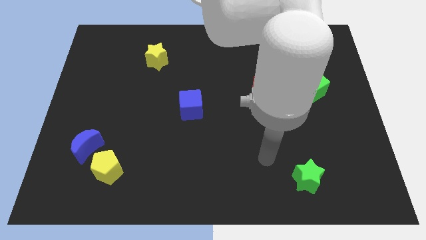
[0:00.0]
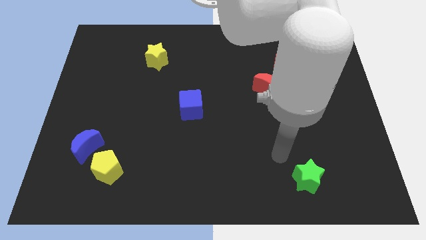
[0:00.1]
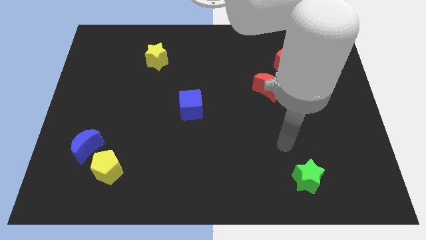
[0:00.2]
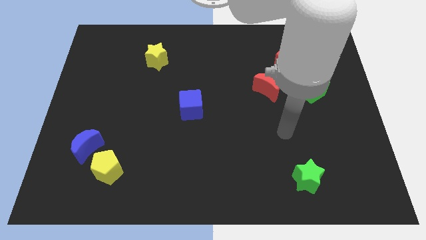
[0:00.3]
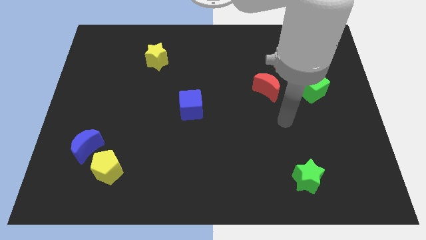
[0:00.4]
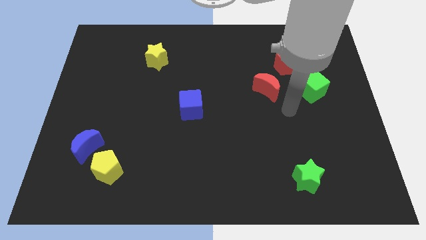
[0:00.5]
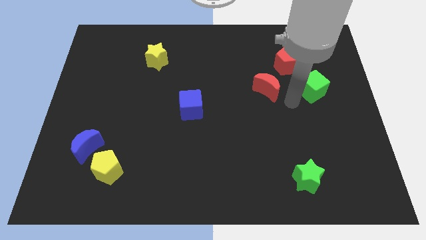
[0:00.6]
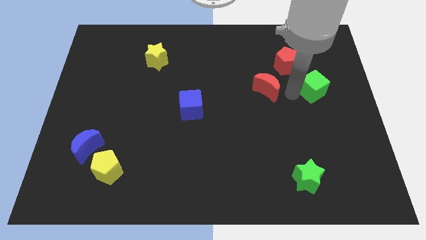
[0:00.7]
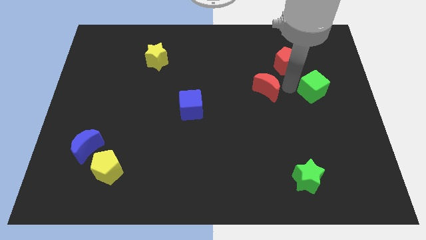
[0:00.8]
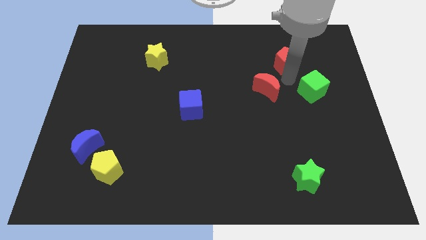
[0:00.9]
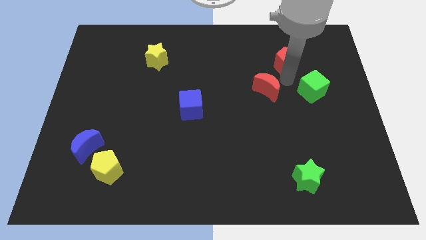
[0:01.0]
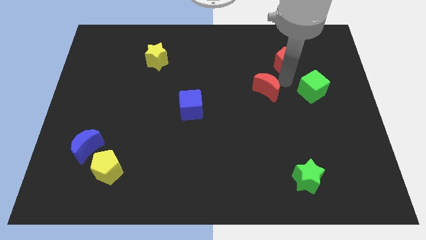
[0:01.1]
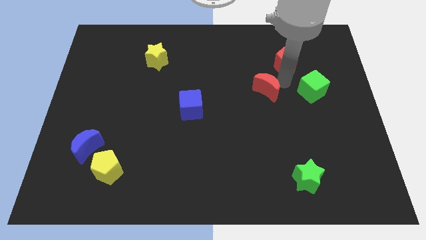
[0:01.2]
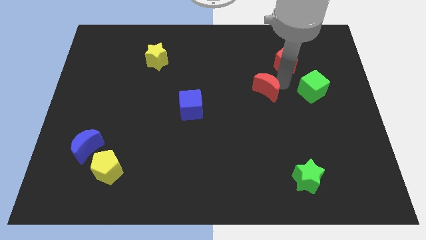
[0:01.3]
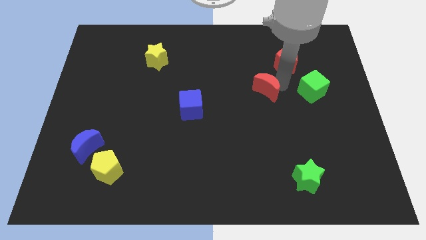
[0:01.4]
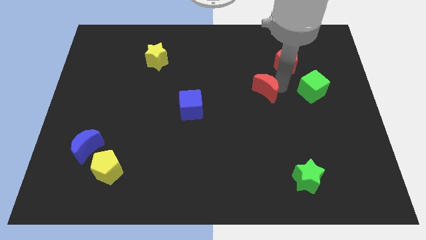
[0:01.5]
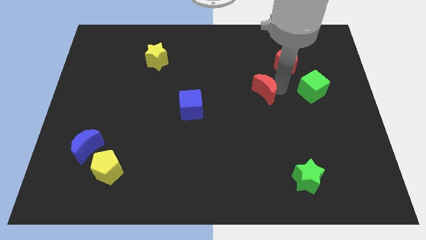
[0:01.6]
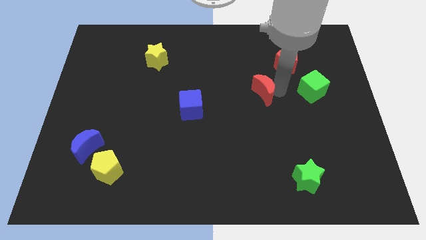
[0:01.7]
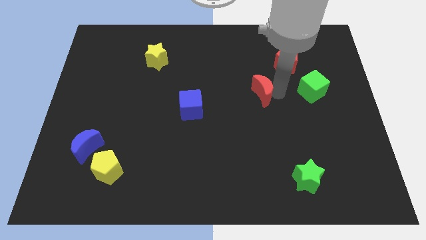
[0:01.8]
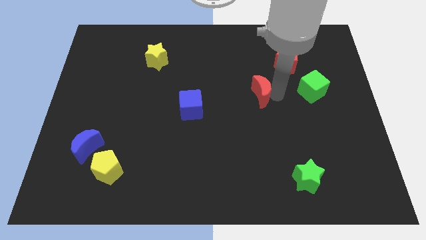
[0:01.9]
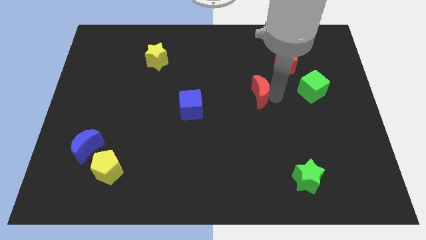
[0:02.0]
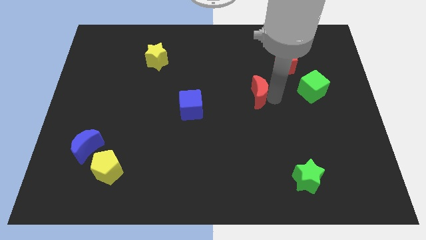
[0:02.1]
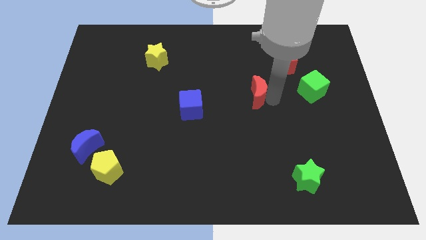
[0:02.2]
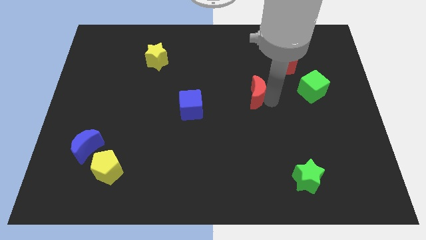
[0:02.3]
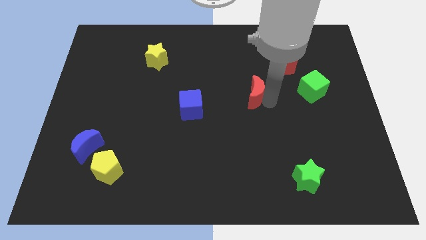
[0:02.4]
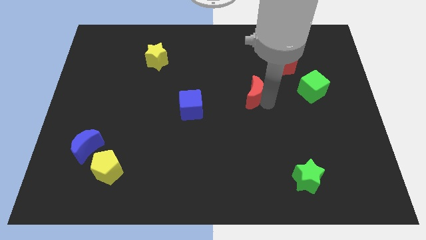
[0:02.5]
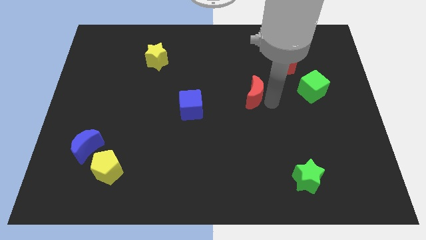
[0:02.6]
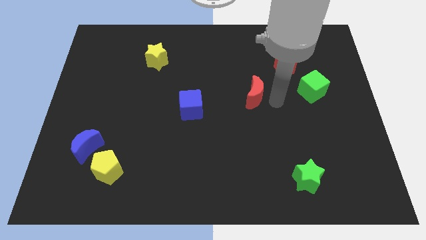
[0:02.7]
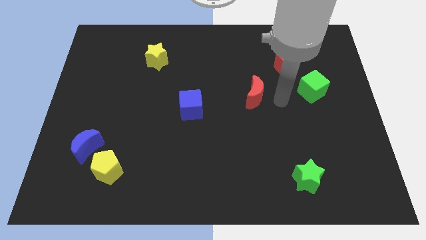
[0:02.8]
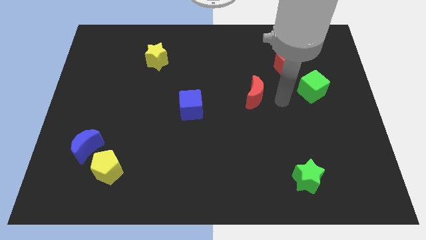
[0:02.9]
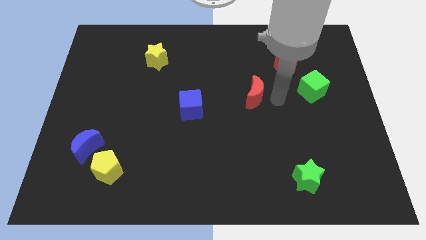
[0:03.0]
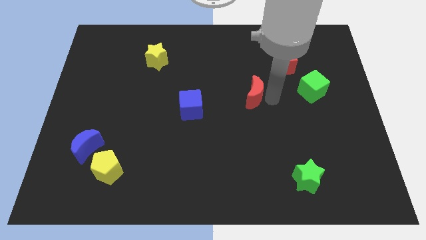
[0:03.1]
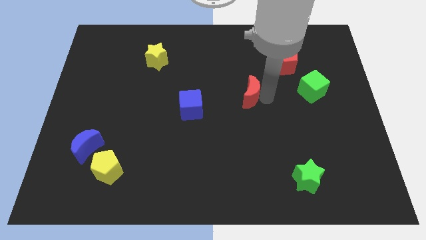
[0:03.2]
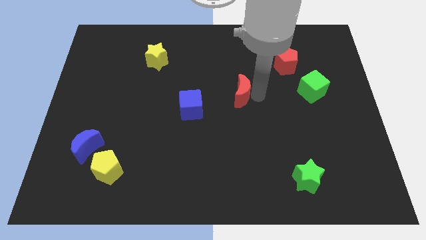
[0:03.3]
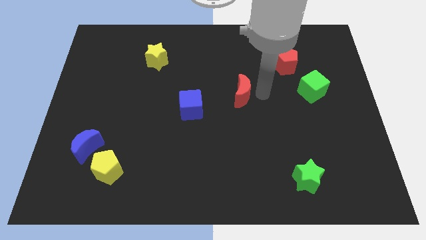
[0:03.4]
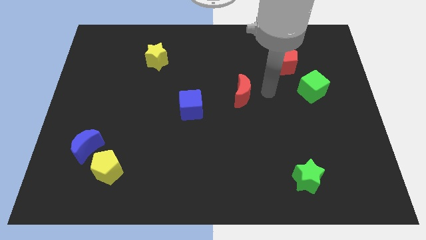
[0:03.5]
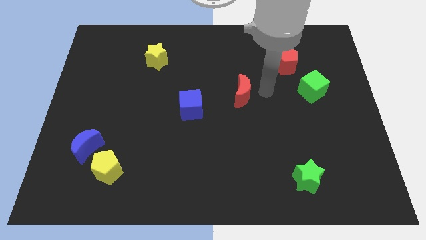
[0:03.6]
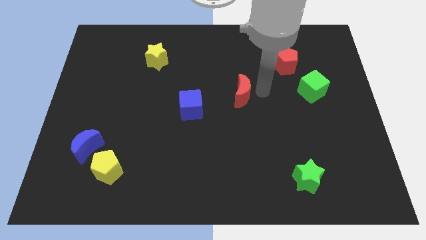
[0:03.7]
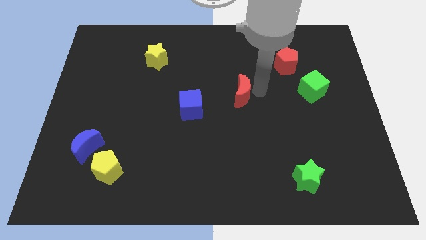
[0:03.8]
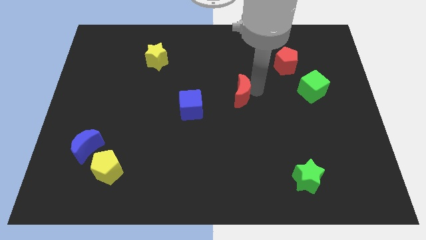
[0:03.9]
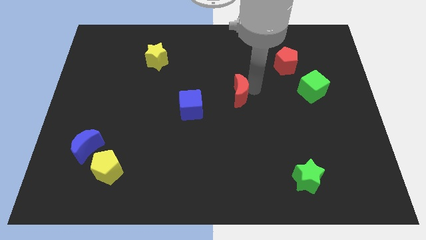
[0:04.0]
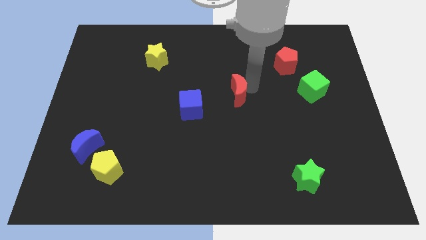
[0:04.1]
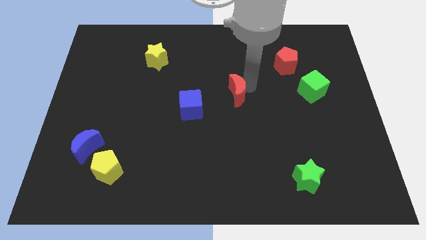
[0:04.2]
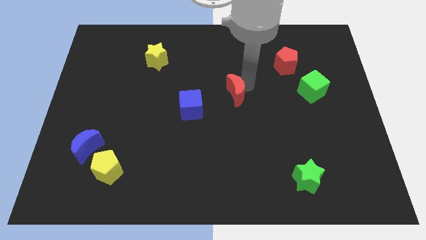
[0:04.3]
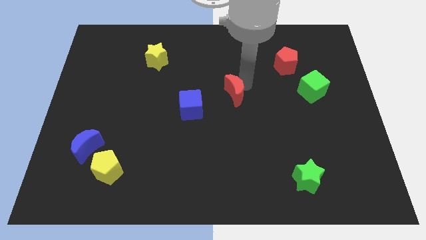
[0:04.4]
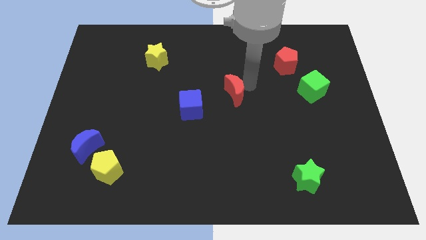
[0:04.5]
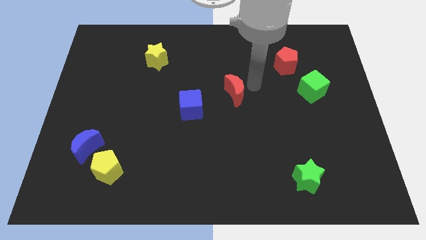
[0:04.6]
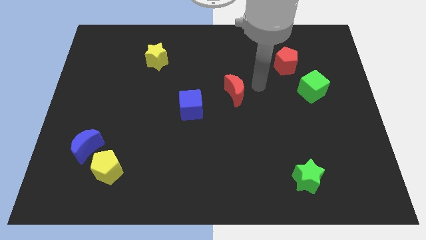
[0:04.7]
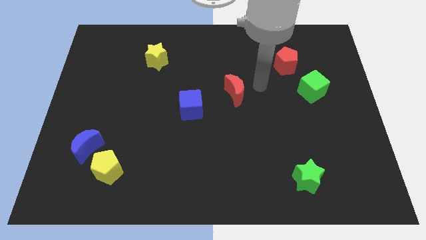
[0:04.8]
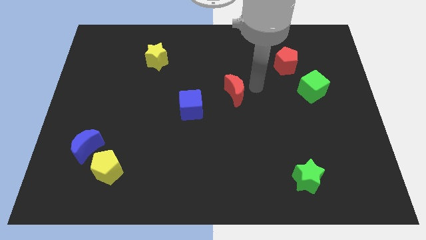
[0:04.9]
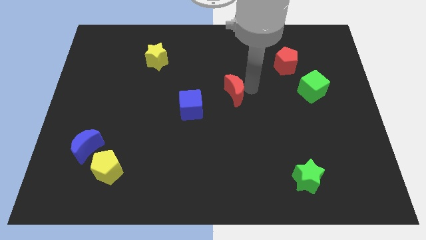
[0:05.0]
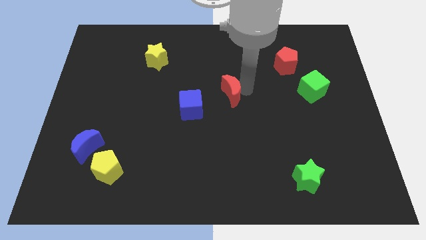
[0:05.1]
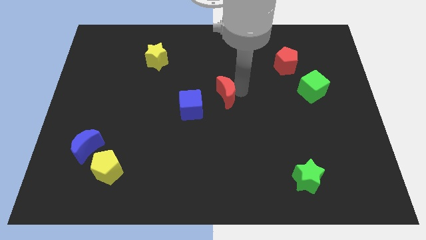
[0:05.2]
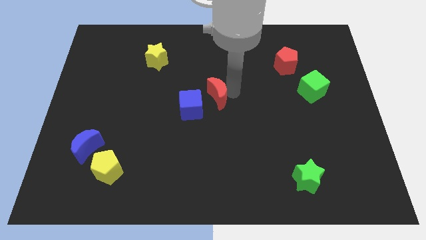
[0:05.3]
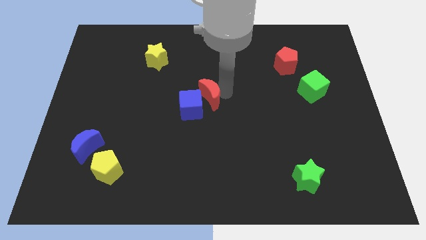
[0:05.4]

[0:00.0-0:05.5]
slide the red moon close to the blue cube

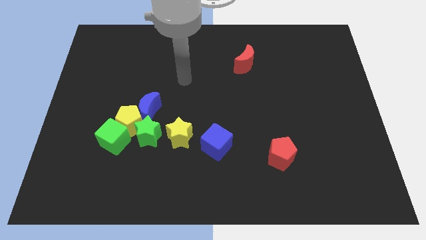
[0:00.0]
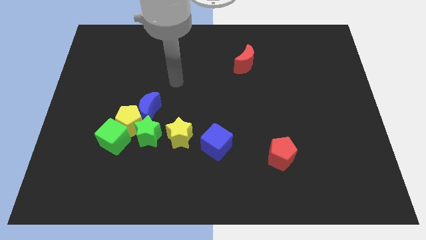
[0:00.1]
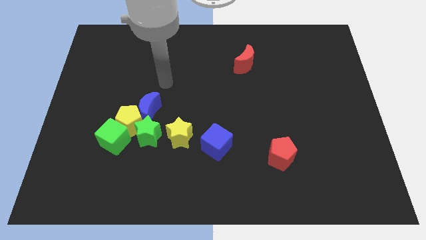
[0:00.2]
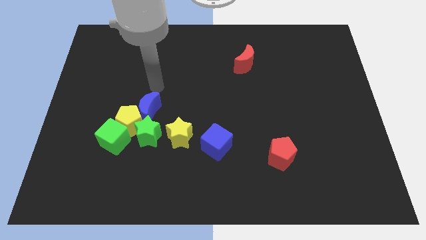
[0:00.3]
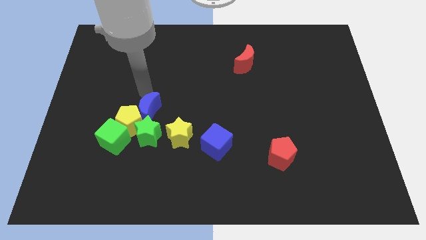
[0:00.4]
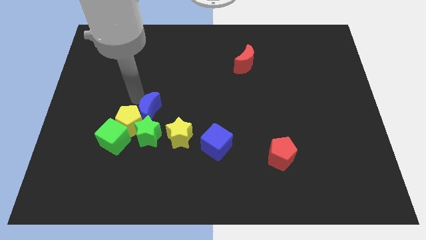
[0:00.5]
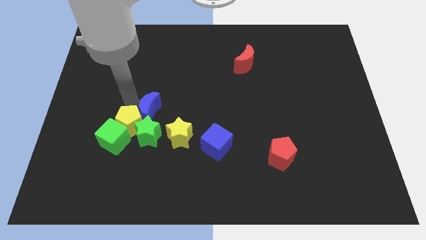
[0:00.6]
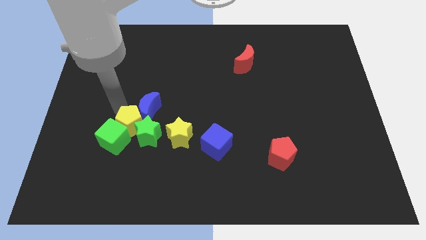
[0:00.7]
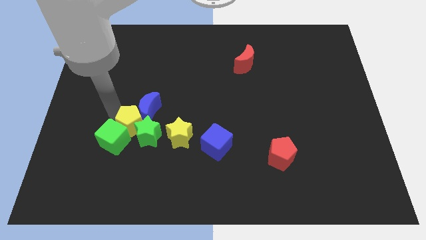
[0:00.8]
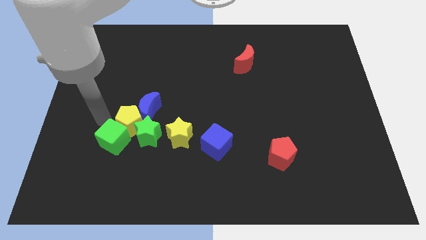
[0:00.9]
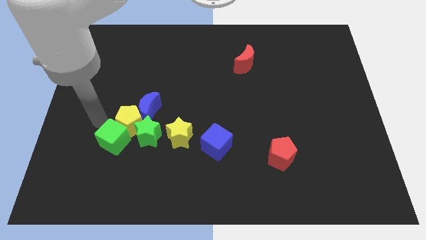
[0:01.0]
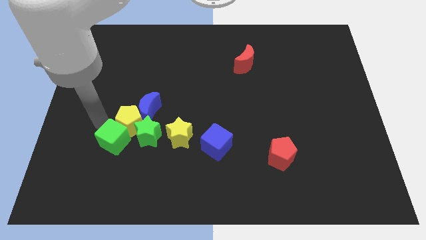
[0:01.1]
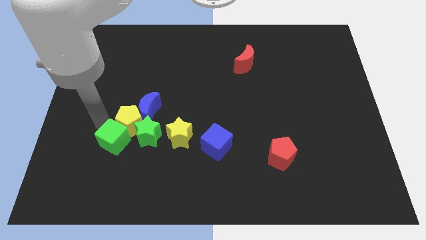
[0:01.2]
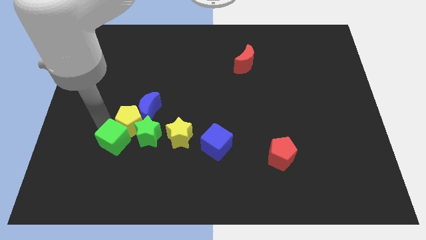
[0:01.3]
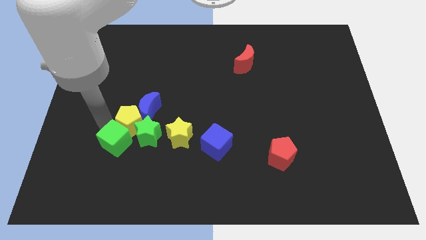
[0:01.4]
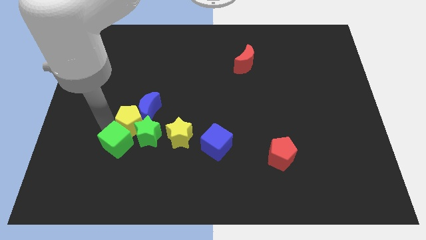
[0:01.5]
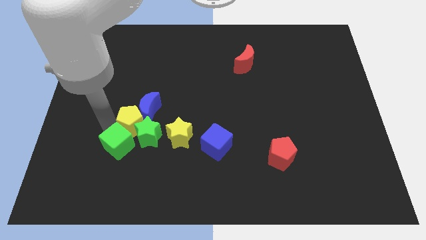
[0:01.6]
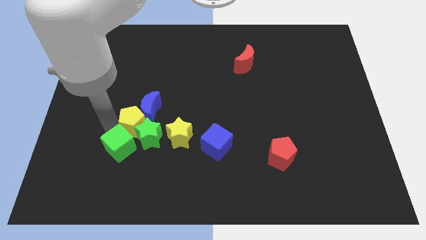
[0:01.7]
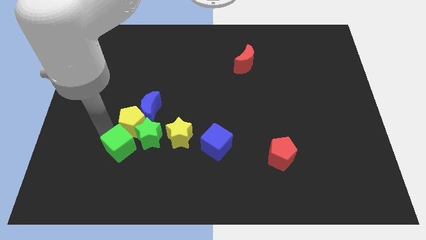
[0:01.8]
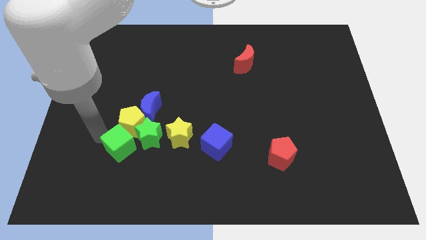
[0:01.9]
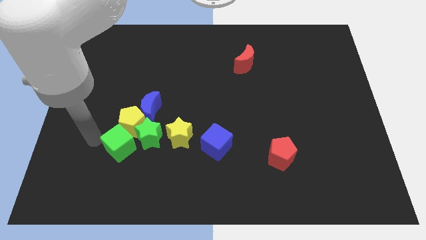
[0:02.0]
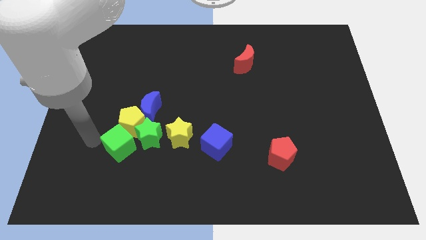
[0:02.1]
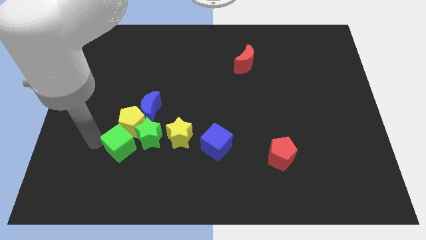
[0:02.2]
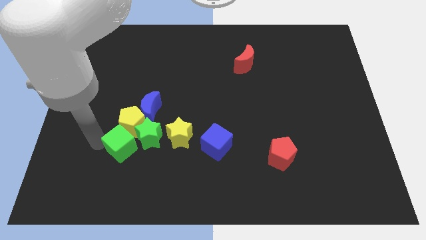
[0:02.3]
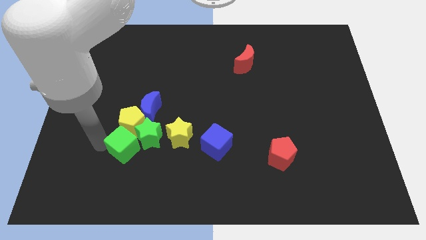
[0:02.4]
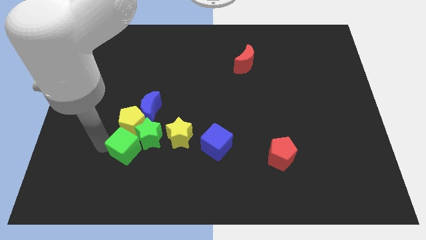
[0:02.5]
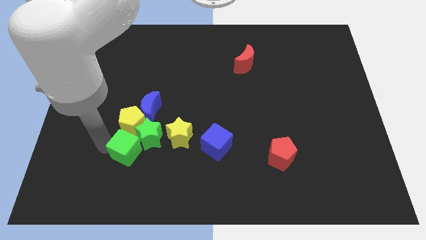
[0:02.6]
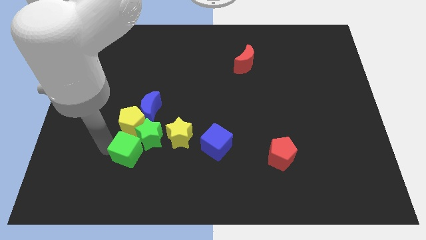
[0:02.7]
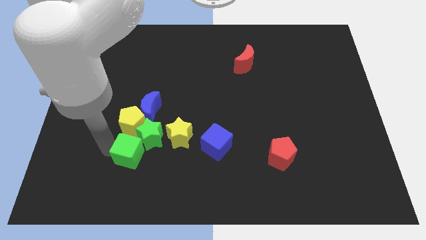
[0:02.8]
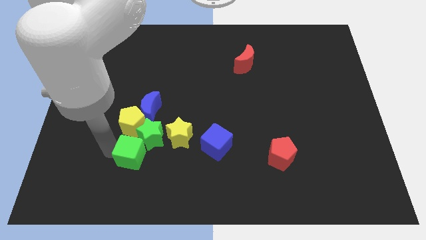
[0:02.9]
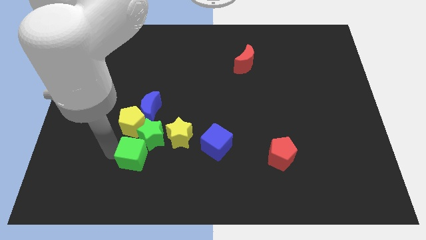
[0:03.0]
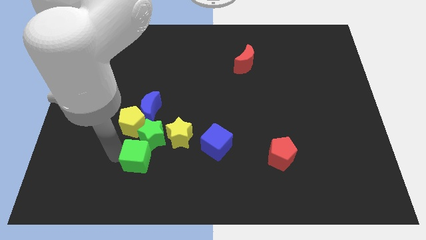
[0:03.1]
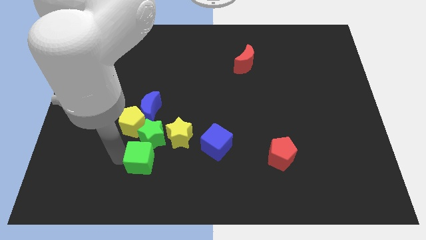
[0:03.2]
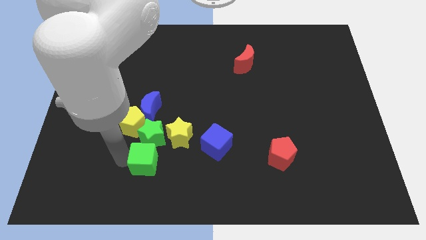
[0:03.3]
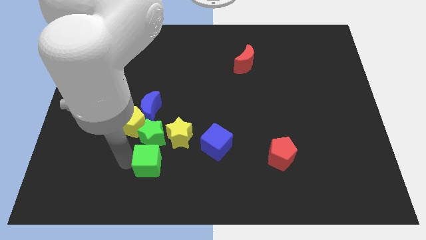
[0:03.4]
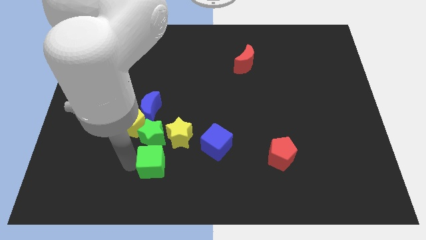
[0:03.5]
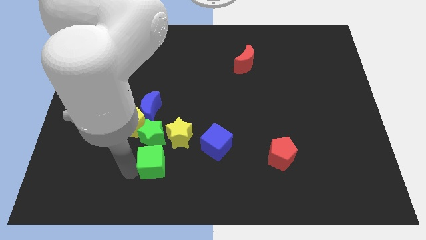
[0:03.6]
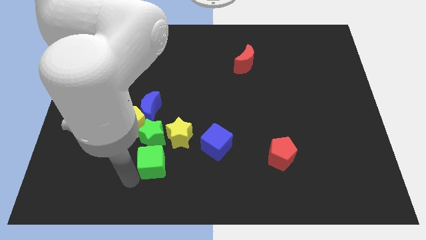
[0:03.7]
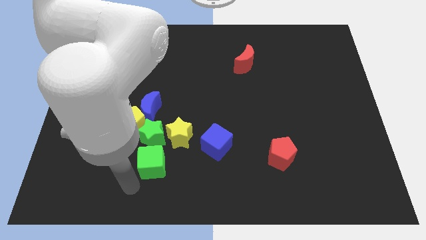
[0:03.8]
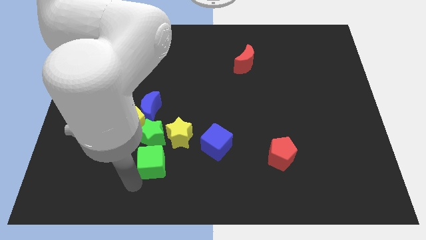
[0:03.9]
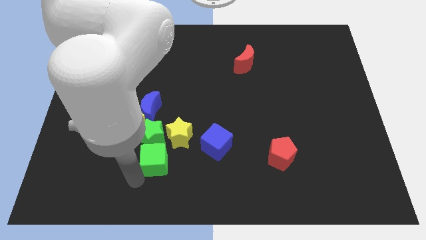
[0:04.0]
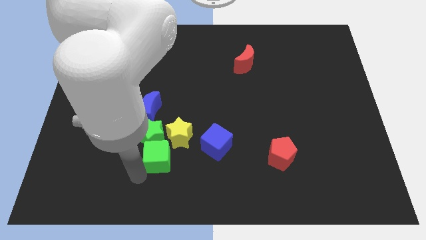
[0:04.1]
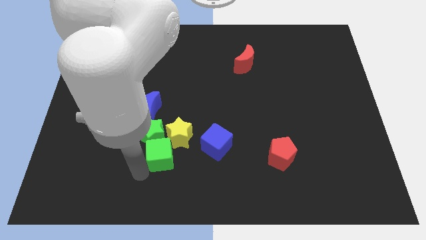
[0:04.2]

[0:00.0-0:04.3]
move the green cube towards the yellow star
